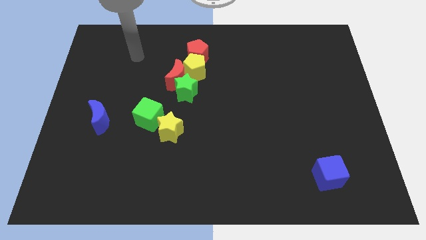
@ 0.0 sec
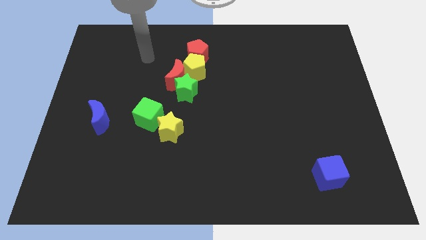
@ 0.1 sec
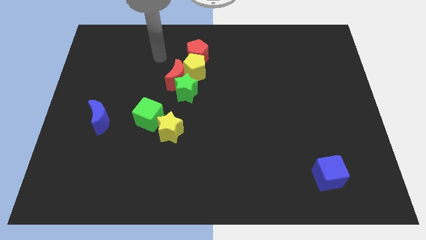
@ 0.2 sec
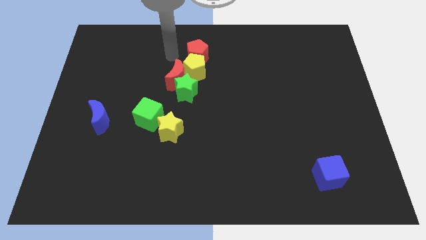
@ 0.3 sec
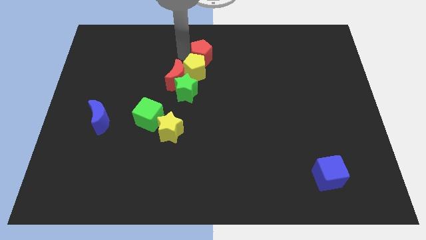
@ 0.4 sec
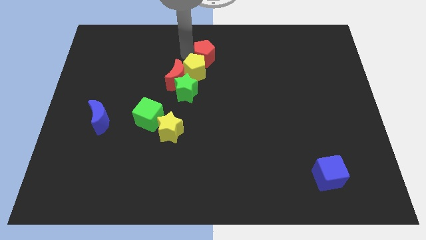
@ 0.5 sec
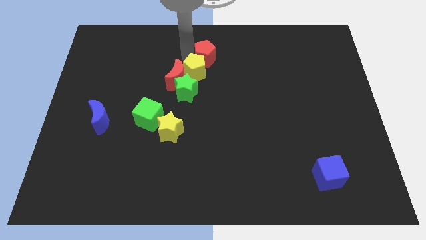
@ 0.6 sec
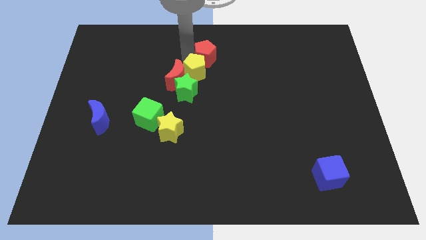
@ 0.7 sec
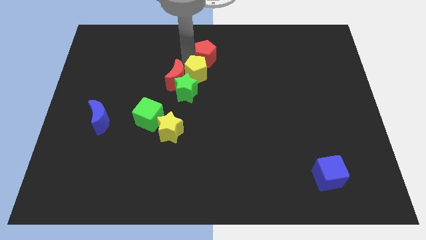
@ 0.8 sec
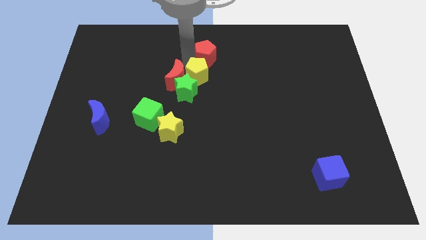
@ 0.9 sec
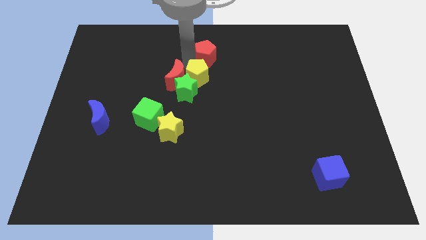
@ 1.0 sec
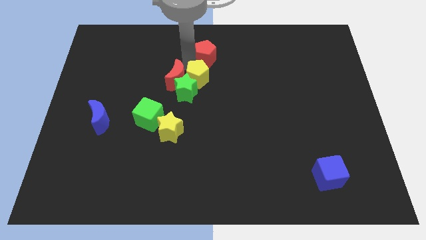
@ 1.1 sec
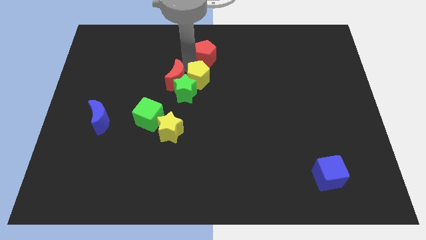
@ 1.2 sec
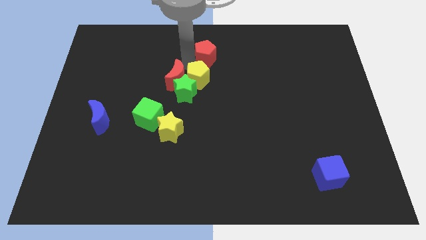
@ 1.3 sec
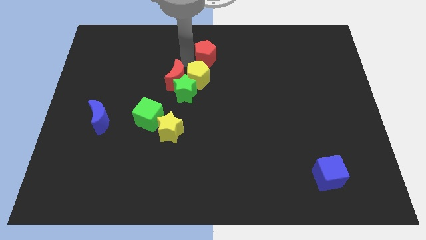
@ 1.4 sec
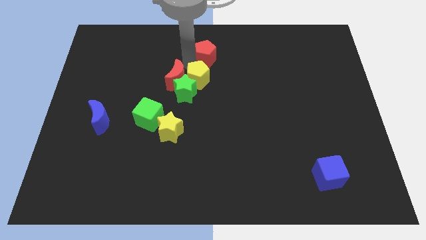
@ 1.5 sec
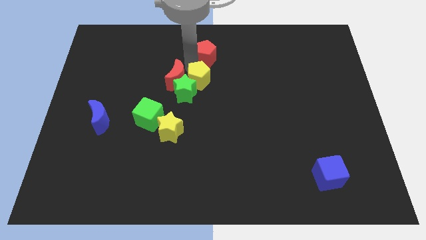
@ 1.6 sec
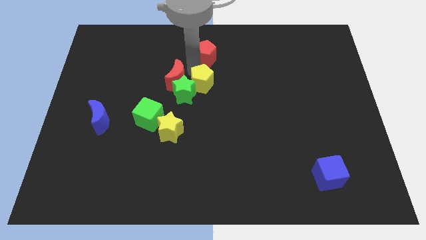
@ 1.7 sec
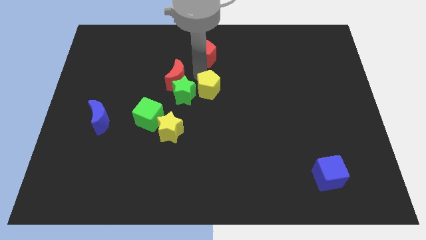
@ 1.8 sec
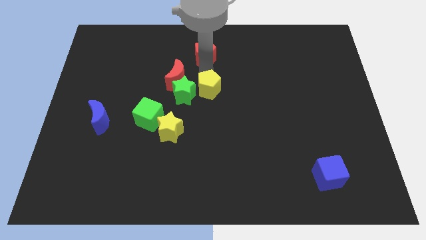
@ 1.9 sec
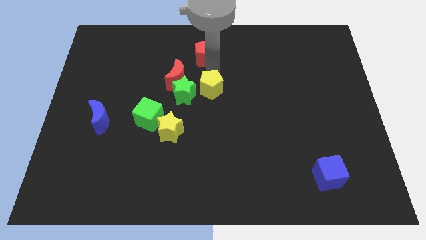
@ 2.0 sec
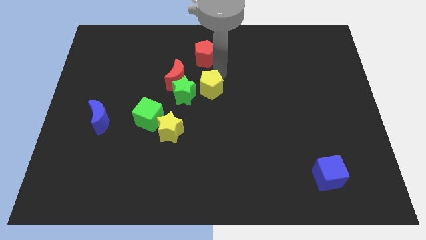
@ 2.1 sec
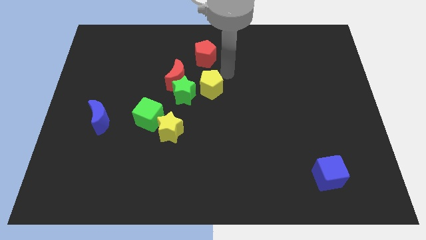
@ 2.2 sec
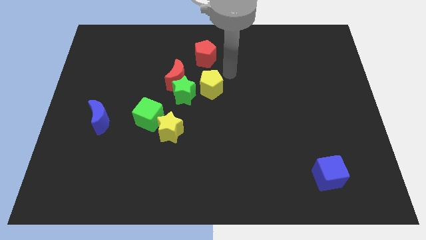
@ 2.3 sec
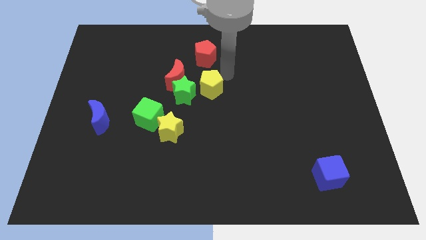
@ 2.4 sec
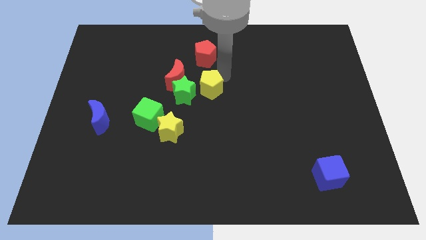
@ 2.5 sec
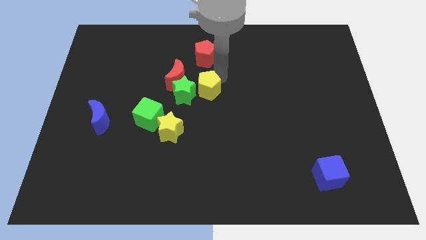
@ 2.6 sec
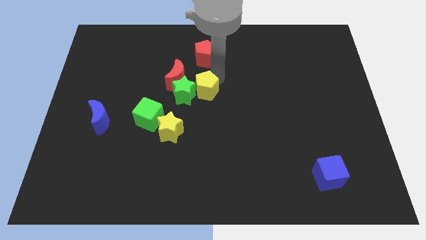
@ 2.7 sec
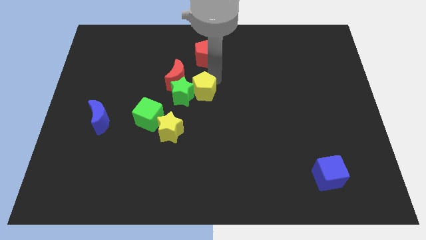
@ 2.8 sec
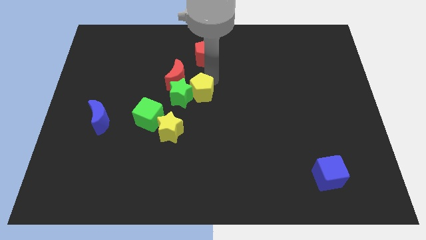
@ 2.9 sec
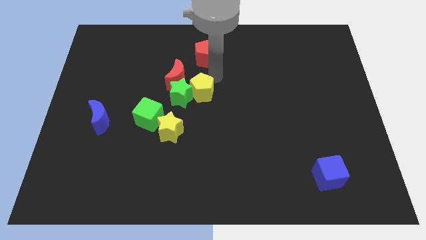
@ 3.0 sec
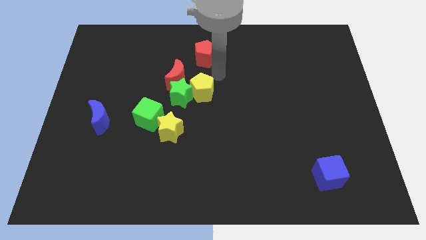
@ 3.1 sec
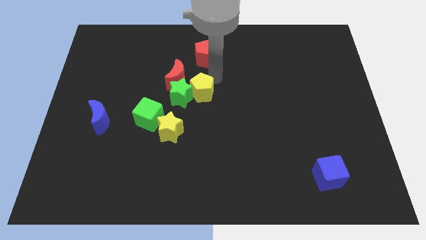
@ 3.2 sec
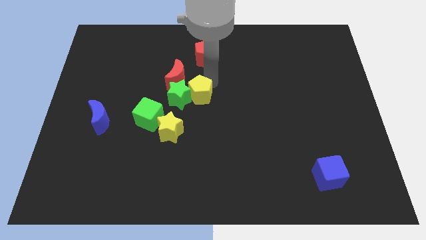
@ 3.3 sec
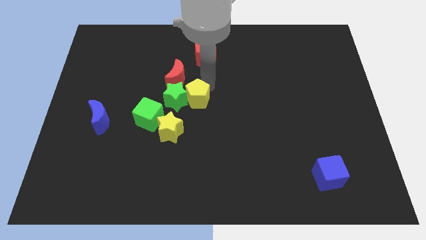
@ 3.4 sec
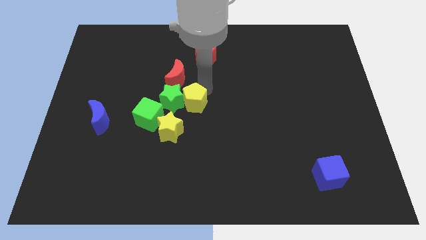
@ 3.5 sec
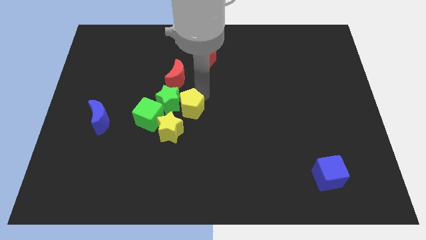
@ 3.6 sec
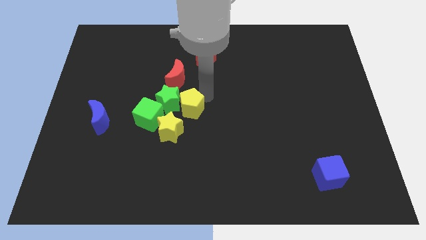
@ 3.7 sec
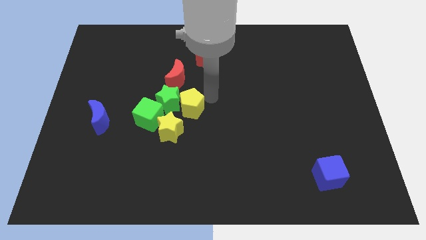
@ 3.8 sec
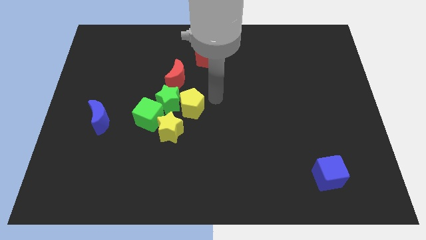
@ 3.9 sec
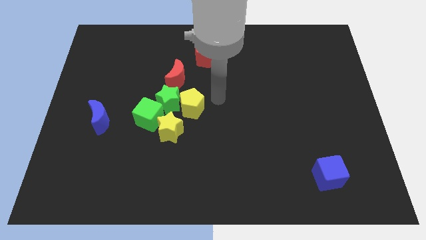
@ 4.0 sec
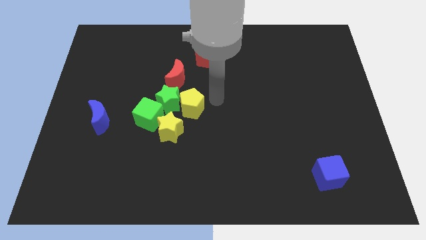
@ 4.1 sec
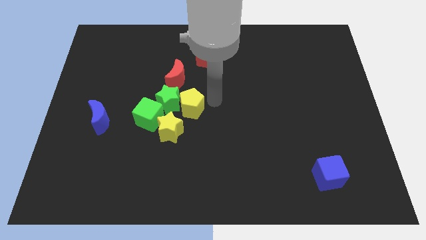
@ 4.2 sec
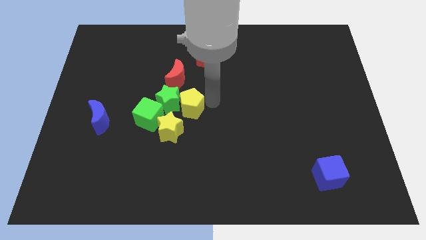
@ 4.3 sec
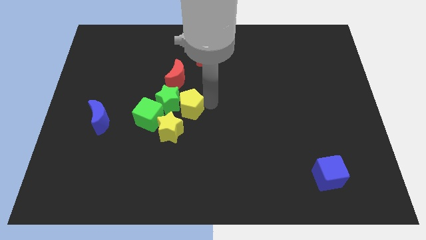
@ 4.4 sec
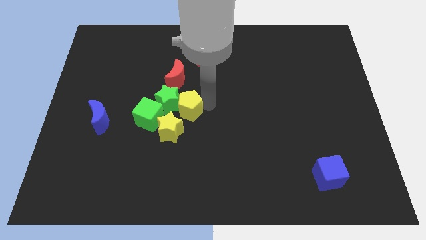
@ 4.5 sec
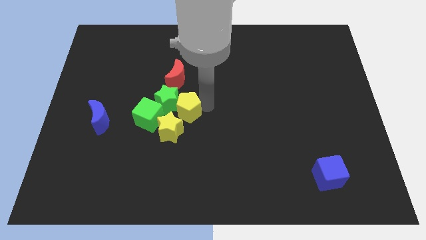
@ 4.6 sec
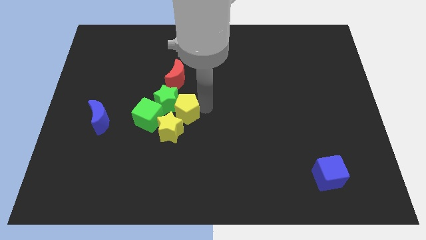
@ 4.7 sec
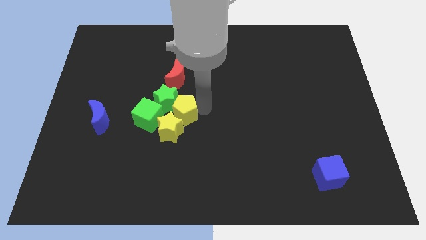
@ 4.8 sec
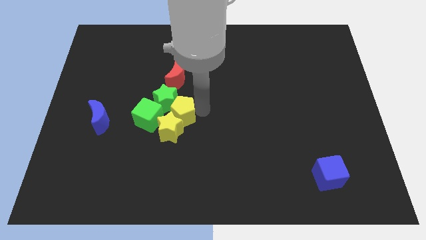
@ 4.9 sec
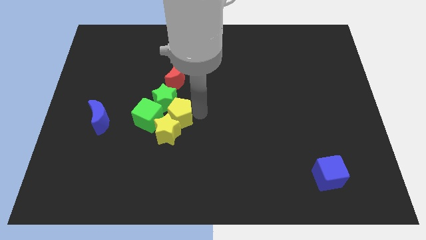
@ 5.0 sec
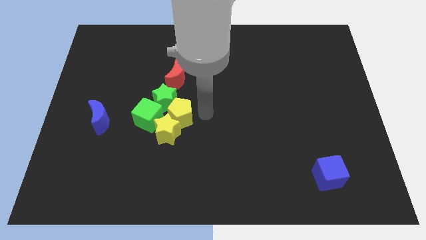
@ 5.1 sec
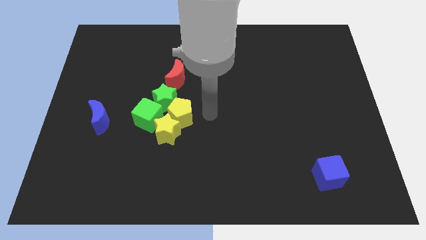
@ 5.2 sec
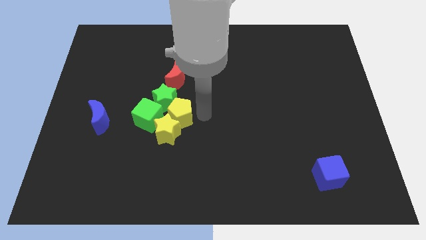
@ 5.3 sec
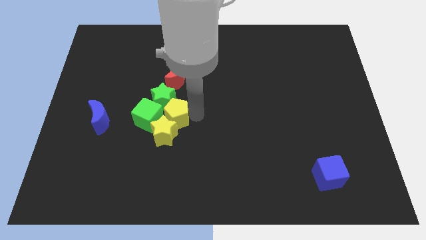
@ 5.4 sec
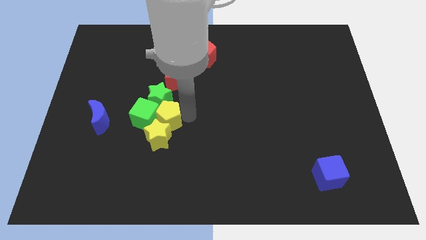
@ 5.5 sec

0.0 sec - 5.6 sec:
slide the yellow pentagon towards the green cube

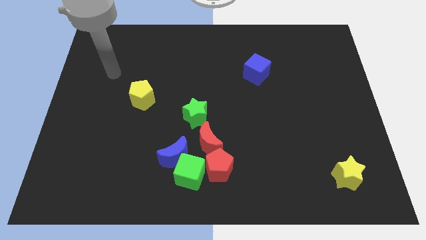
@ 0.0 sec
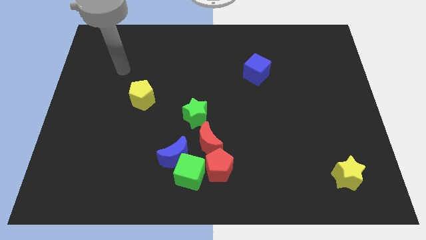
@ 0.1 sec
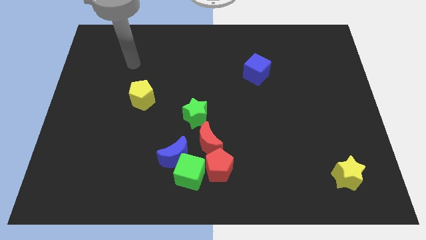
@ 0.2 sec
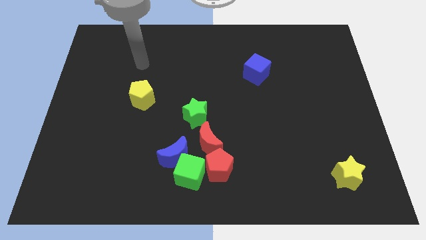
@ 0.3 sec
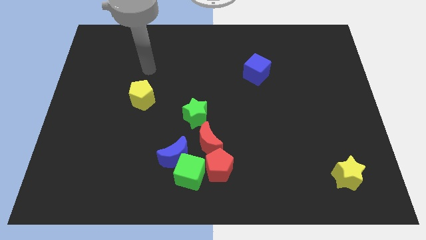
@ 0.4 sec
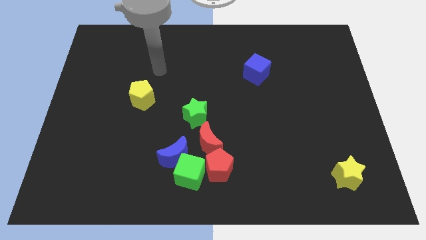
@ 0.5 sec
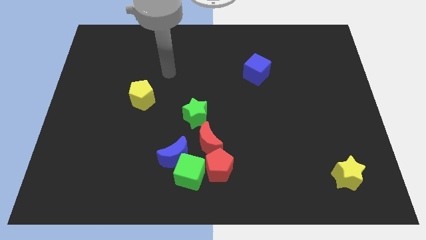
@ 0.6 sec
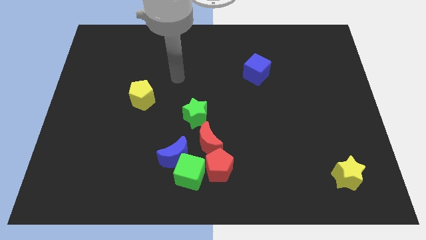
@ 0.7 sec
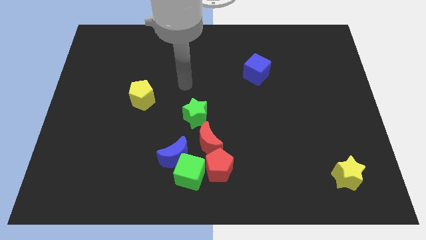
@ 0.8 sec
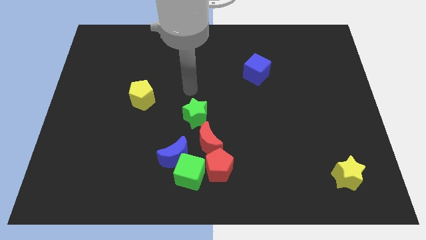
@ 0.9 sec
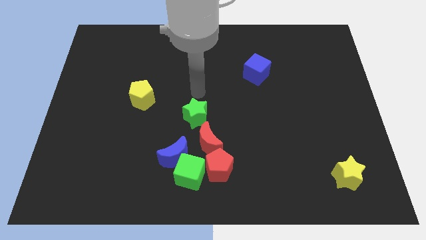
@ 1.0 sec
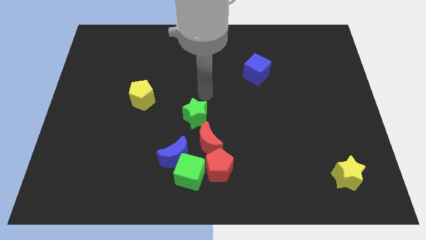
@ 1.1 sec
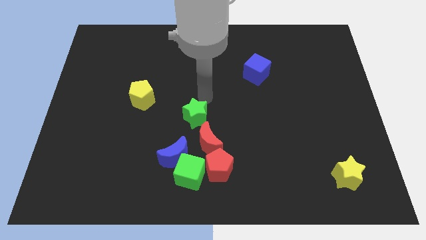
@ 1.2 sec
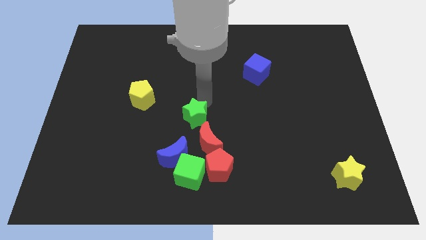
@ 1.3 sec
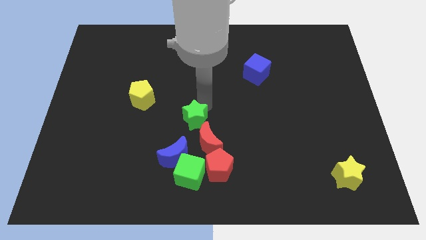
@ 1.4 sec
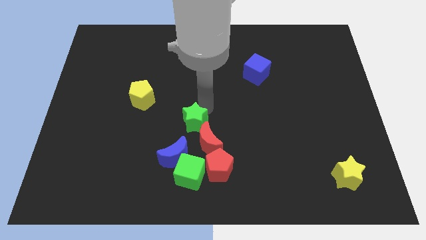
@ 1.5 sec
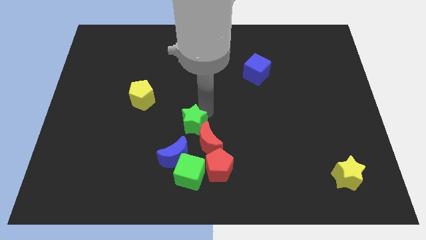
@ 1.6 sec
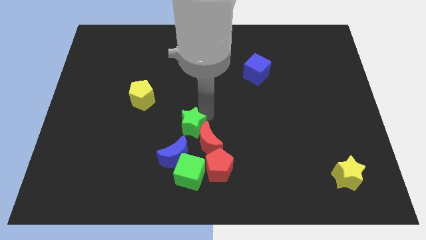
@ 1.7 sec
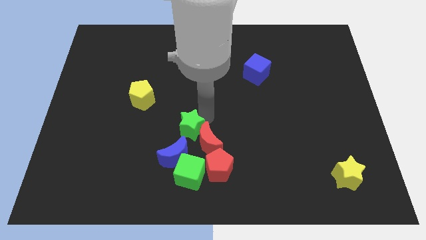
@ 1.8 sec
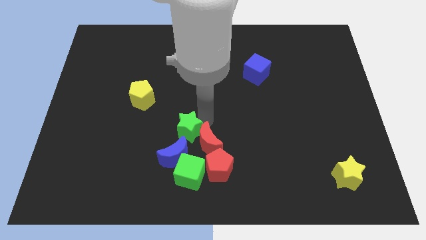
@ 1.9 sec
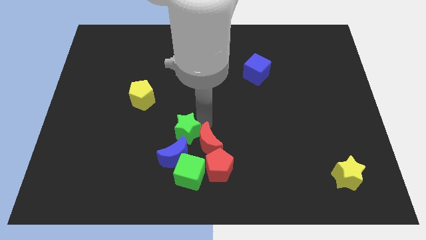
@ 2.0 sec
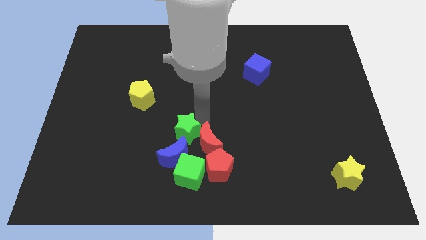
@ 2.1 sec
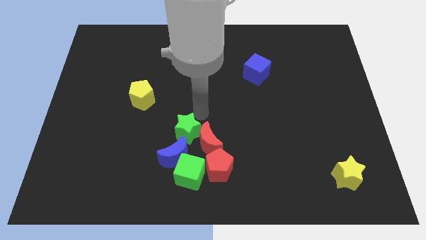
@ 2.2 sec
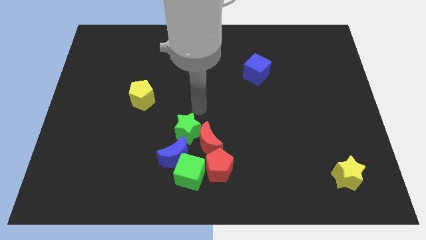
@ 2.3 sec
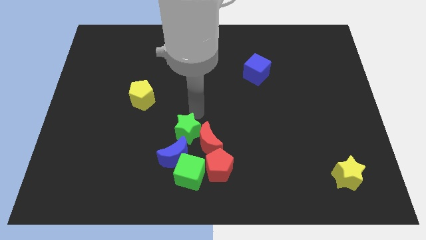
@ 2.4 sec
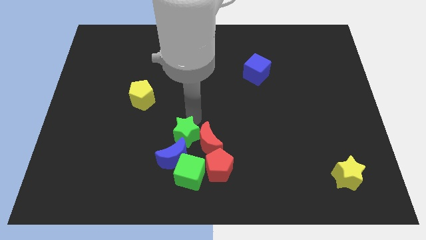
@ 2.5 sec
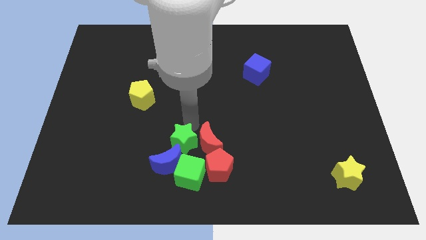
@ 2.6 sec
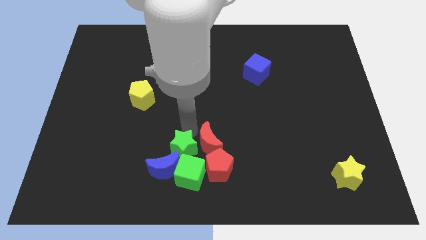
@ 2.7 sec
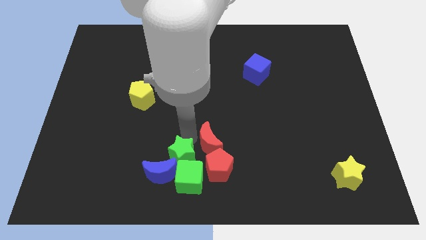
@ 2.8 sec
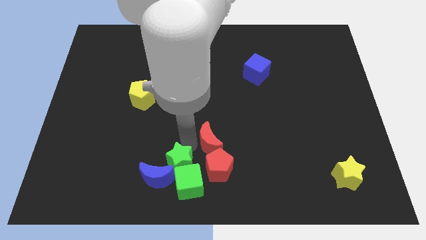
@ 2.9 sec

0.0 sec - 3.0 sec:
put the green star towards the blue moon
